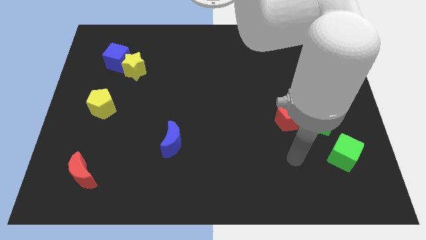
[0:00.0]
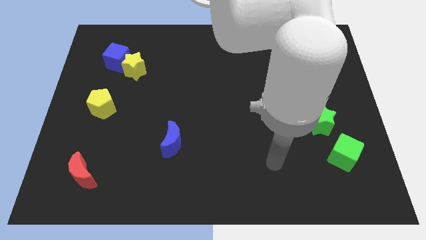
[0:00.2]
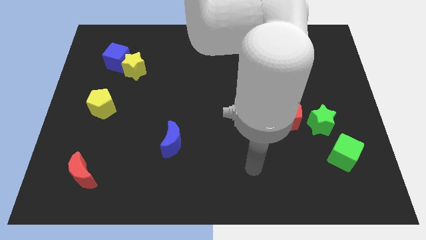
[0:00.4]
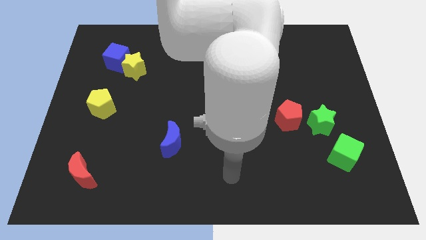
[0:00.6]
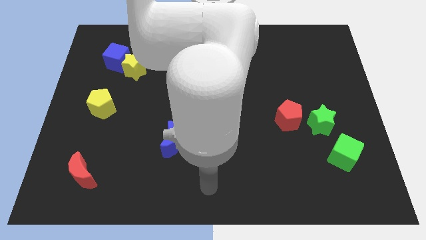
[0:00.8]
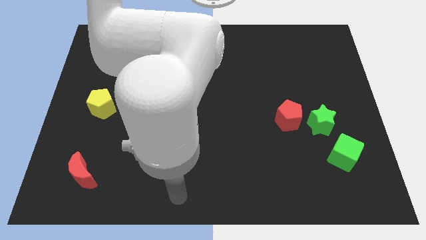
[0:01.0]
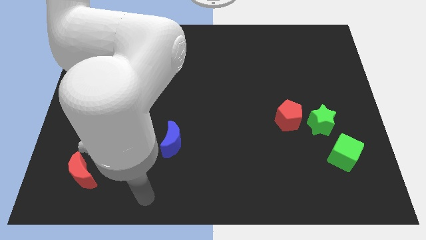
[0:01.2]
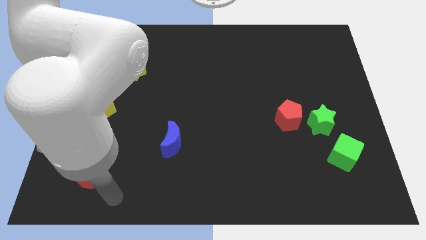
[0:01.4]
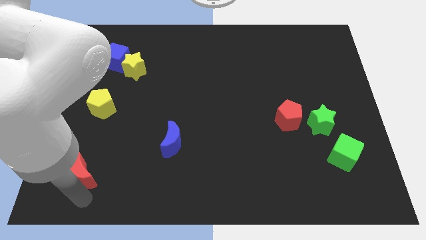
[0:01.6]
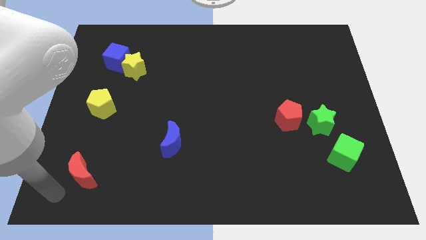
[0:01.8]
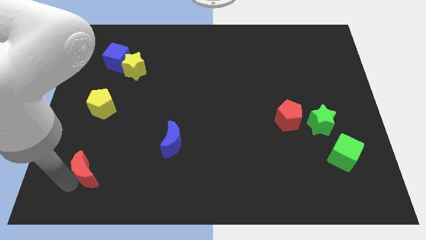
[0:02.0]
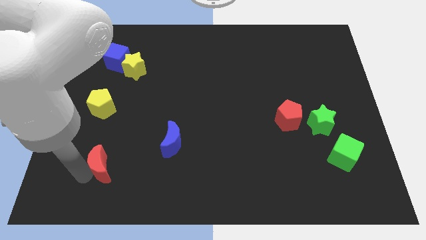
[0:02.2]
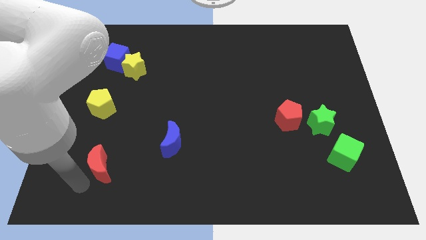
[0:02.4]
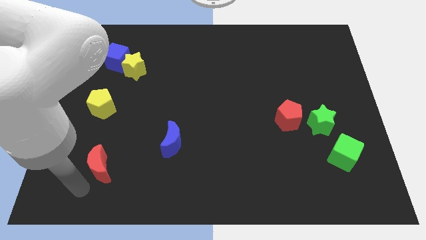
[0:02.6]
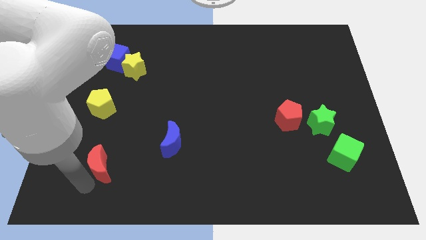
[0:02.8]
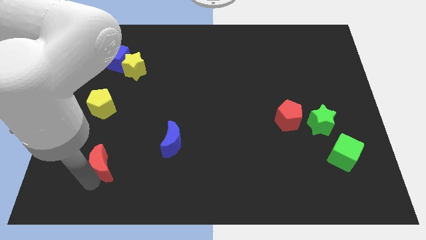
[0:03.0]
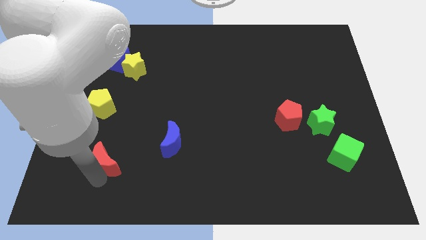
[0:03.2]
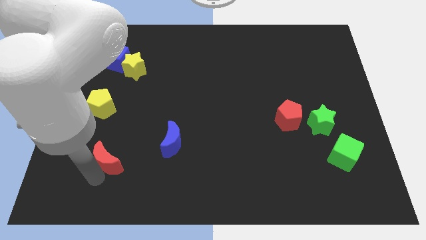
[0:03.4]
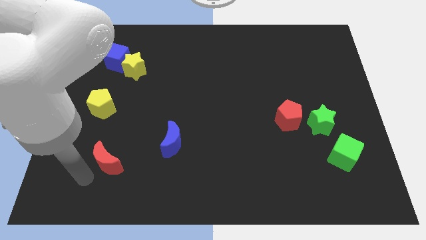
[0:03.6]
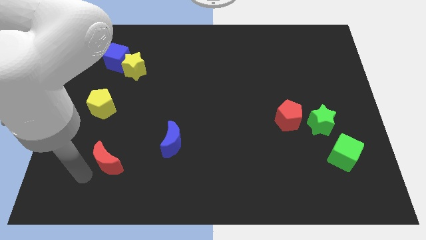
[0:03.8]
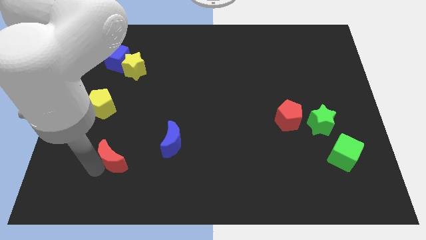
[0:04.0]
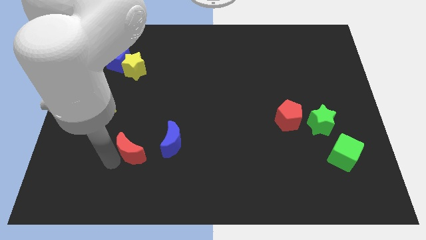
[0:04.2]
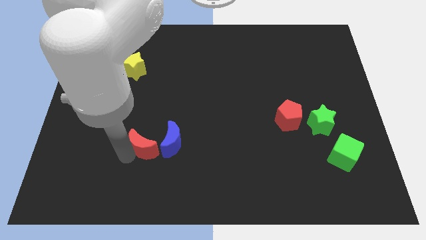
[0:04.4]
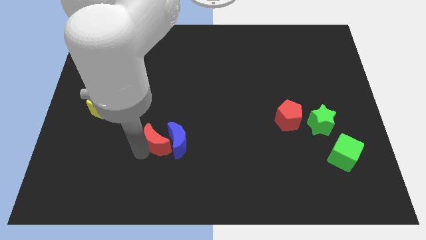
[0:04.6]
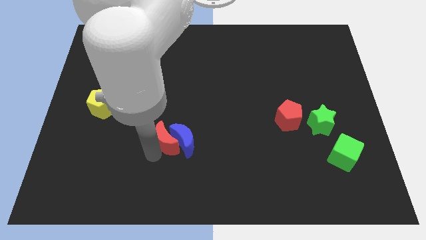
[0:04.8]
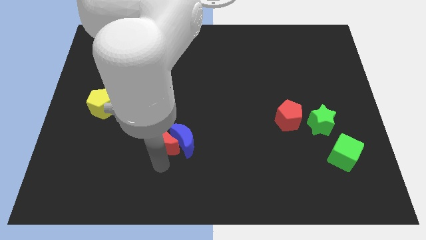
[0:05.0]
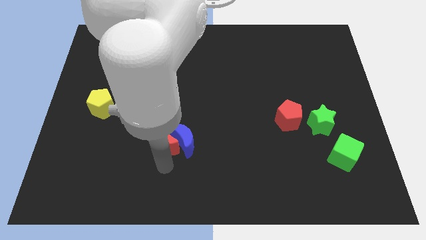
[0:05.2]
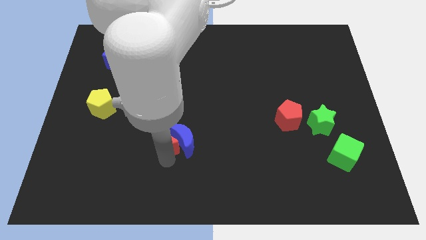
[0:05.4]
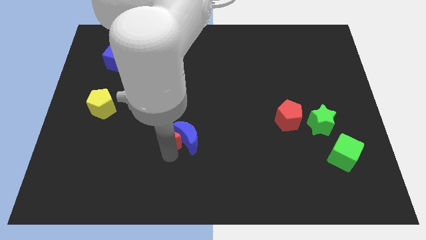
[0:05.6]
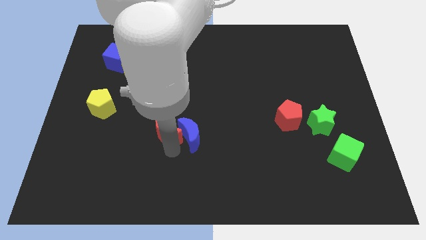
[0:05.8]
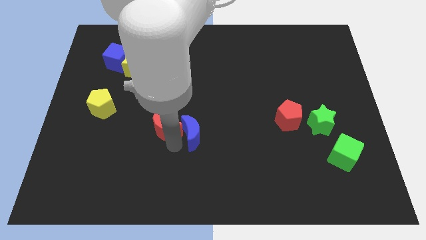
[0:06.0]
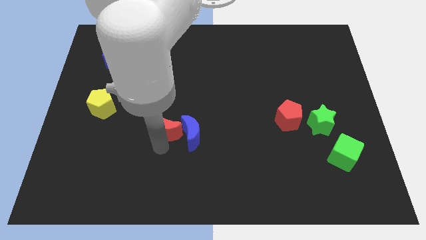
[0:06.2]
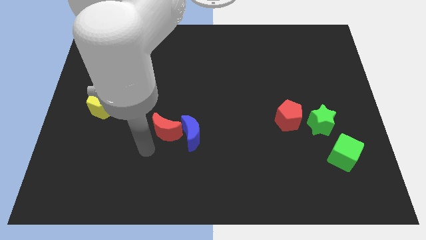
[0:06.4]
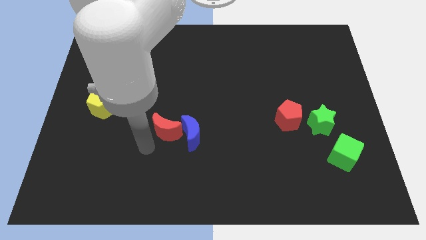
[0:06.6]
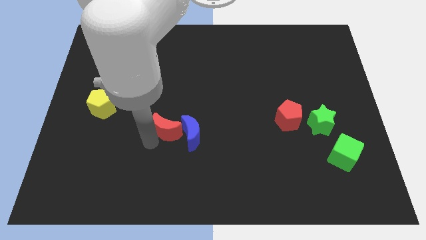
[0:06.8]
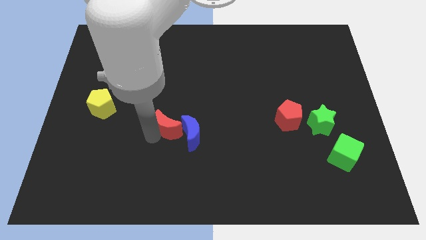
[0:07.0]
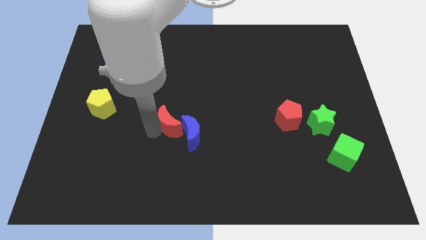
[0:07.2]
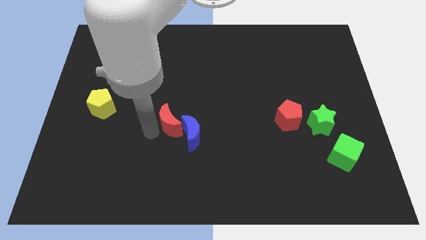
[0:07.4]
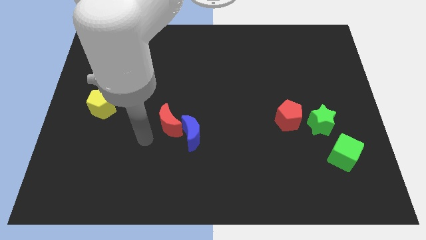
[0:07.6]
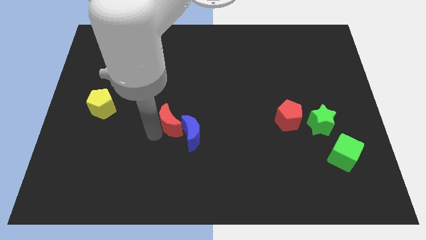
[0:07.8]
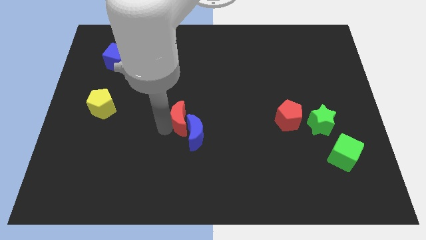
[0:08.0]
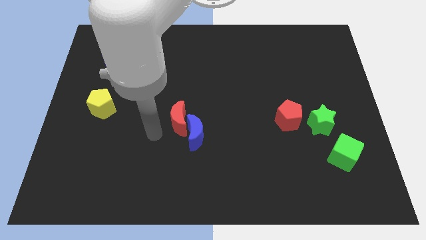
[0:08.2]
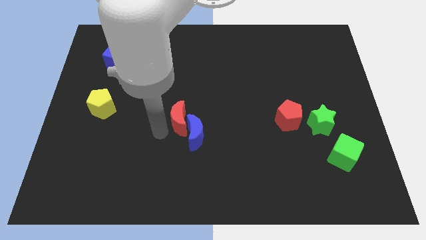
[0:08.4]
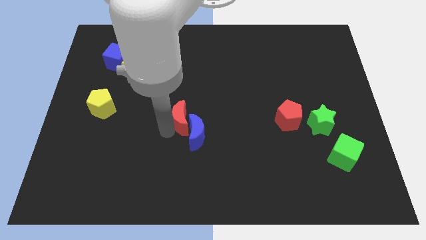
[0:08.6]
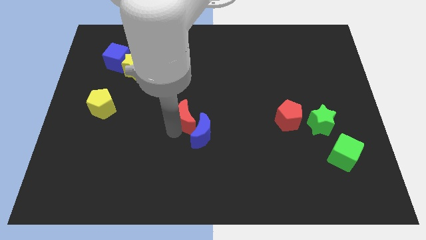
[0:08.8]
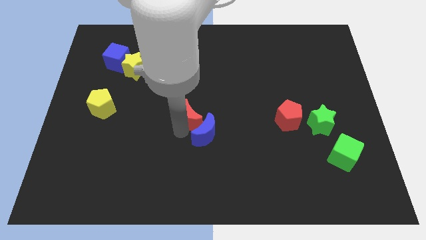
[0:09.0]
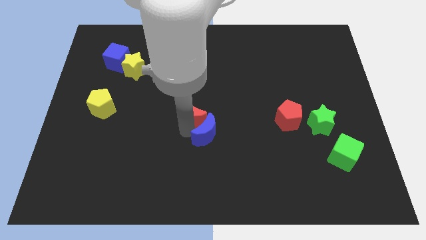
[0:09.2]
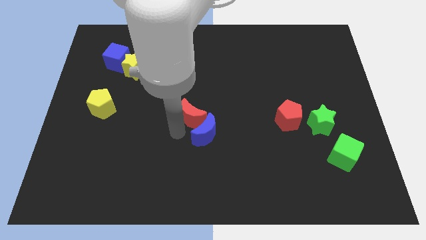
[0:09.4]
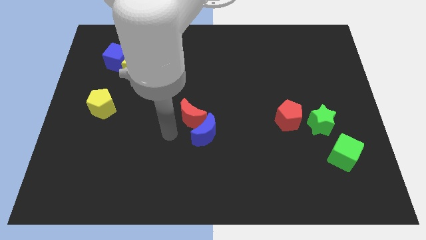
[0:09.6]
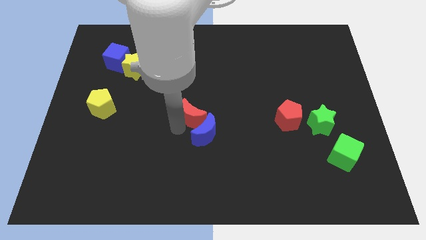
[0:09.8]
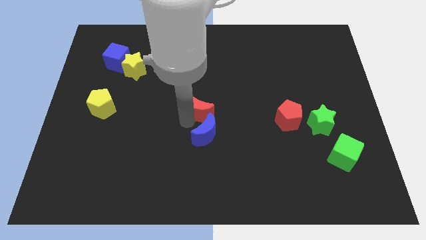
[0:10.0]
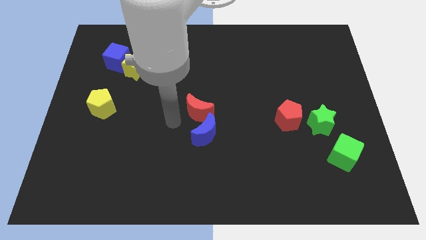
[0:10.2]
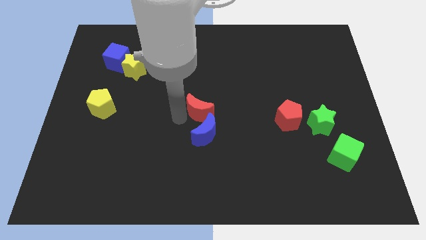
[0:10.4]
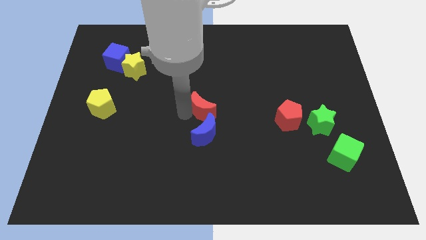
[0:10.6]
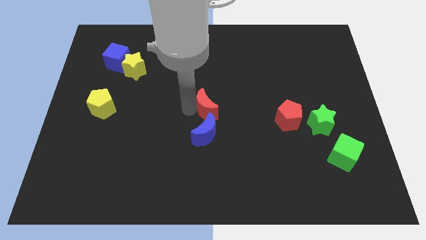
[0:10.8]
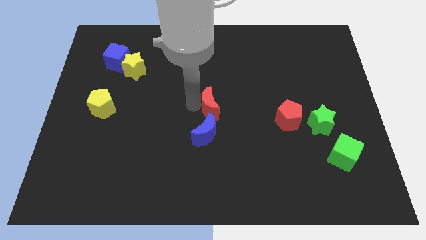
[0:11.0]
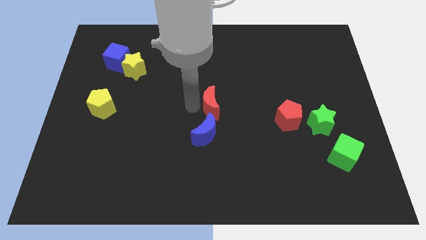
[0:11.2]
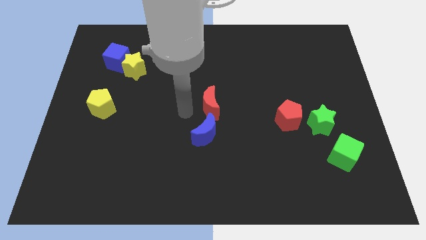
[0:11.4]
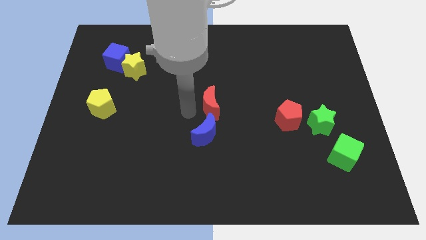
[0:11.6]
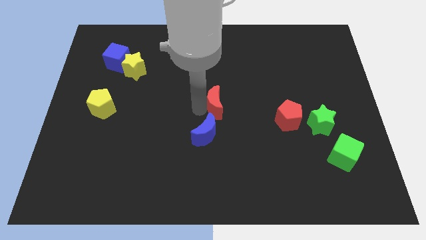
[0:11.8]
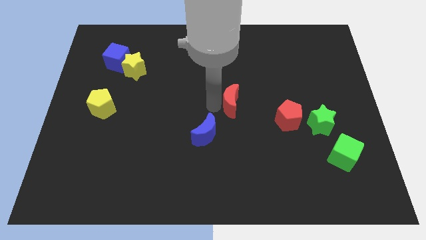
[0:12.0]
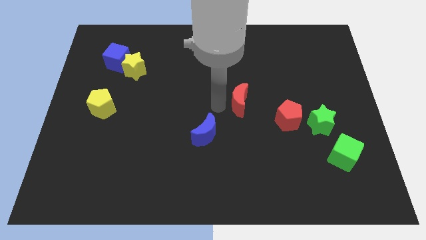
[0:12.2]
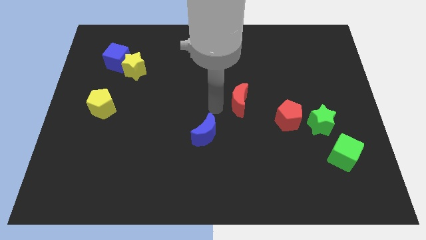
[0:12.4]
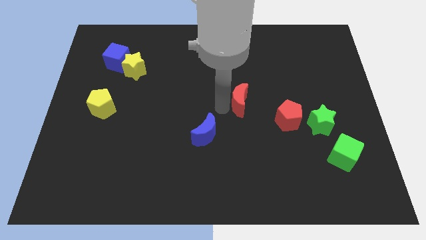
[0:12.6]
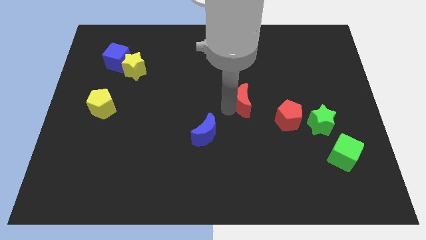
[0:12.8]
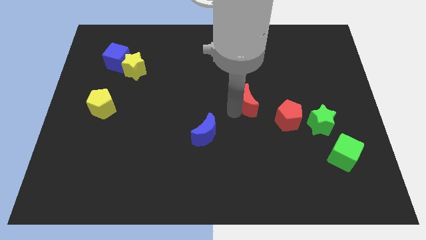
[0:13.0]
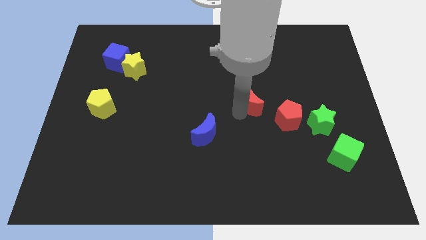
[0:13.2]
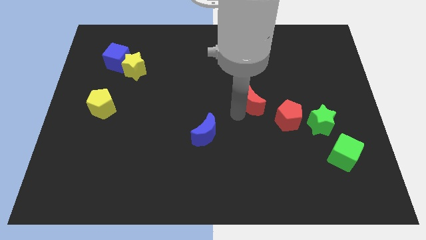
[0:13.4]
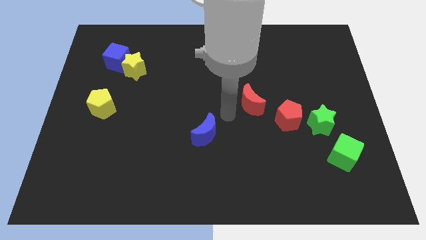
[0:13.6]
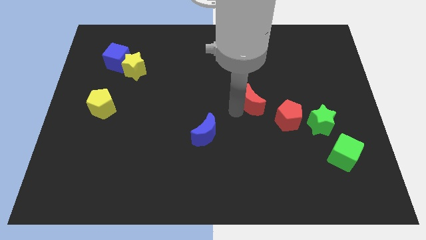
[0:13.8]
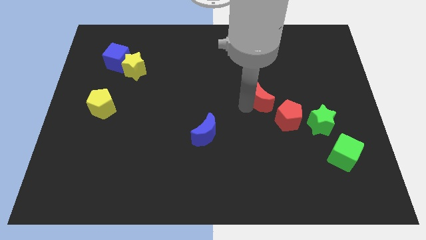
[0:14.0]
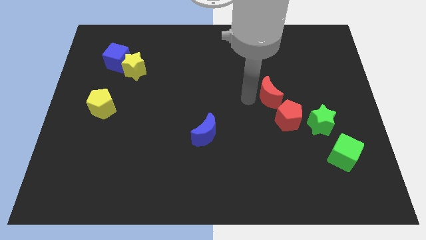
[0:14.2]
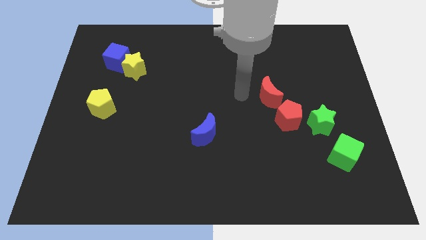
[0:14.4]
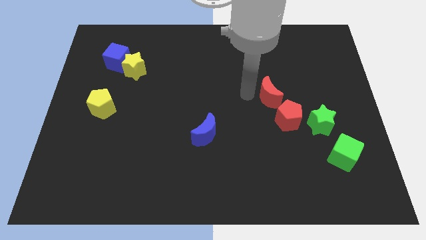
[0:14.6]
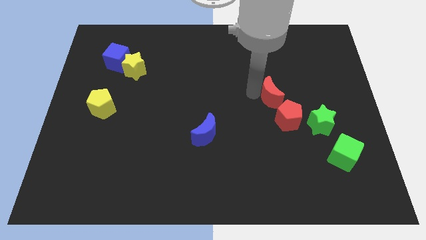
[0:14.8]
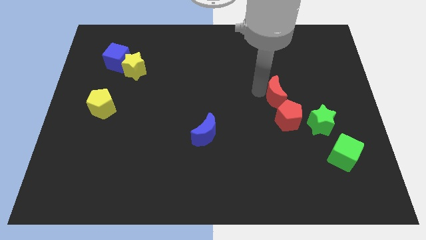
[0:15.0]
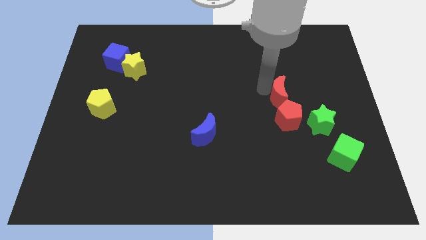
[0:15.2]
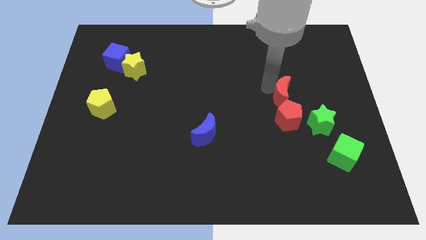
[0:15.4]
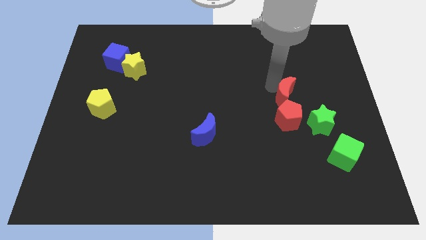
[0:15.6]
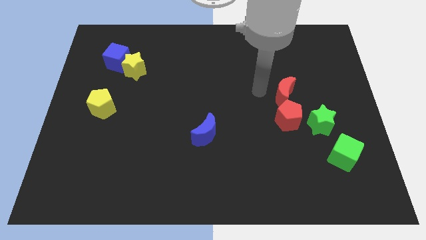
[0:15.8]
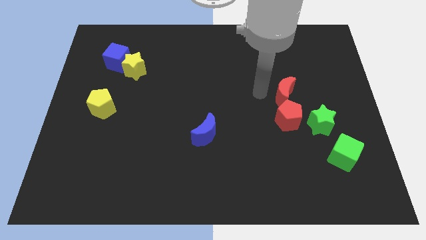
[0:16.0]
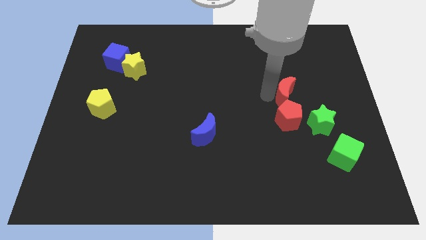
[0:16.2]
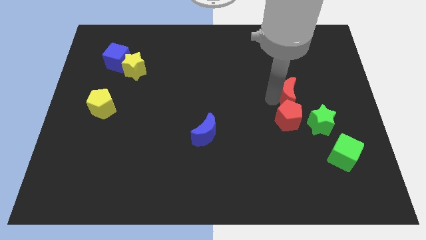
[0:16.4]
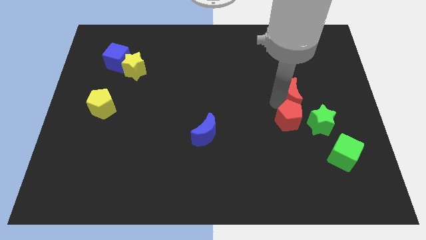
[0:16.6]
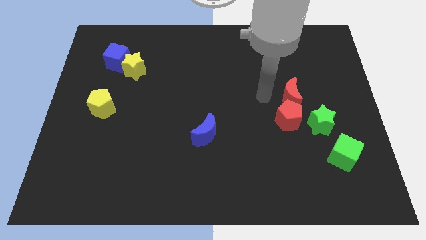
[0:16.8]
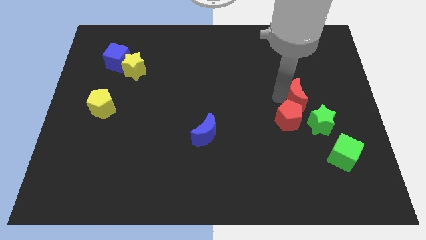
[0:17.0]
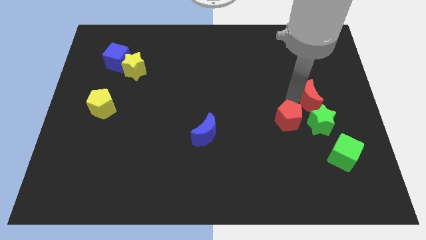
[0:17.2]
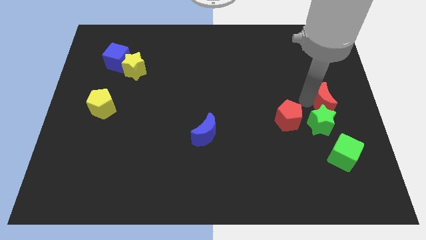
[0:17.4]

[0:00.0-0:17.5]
put the red moon to the center right
